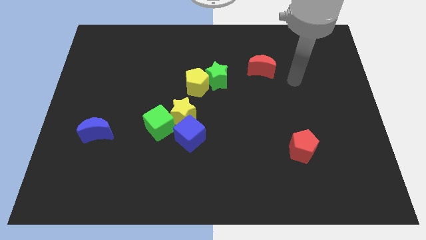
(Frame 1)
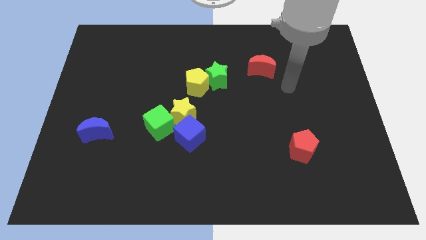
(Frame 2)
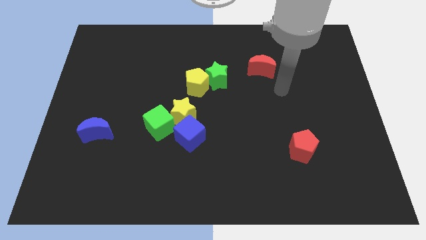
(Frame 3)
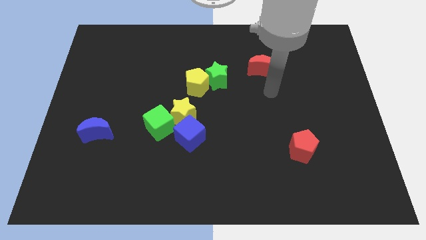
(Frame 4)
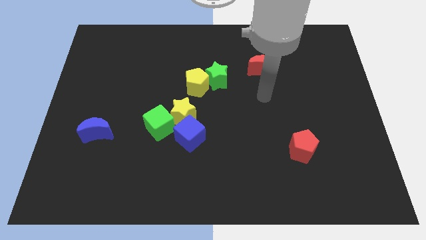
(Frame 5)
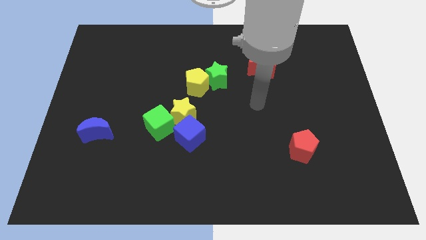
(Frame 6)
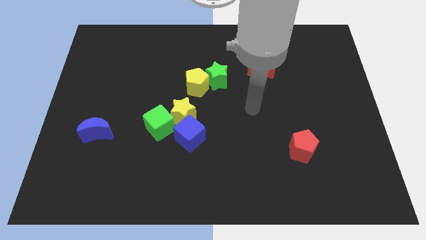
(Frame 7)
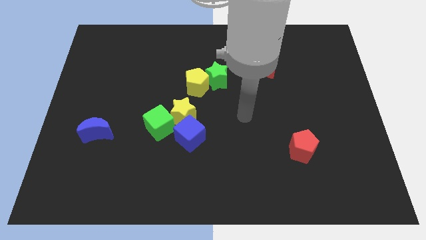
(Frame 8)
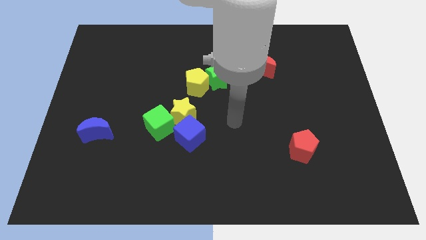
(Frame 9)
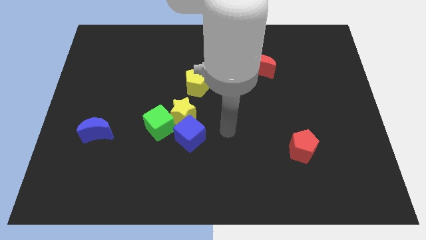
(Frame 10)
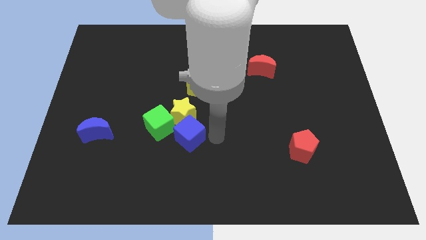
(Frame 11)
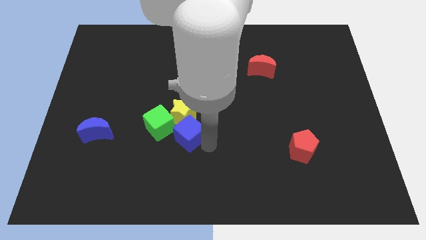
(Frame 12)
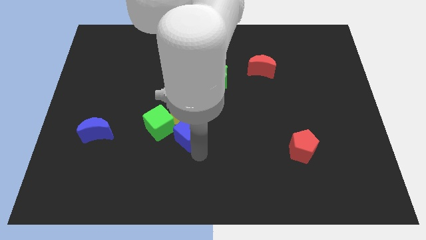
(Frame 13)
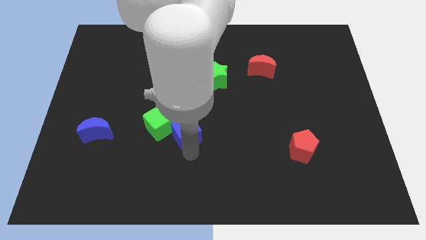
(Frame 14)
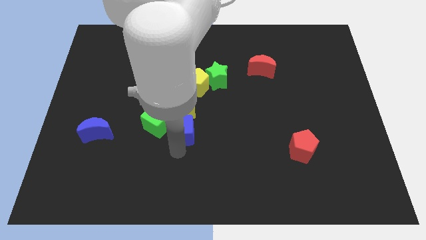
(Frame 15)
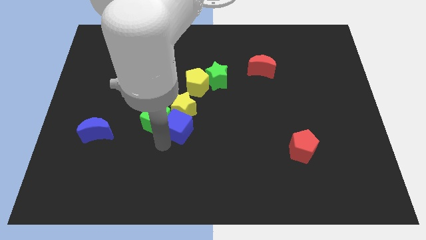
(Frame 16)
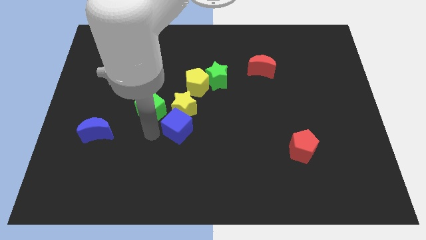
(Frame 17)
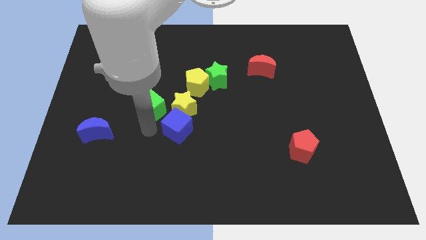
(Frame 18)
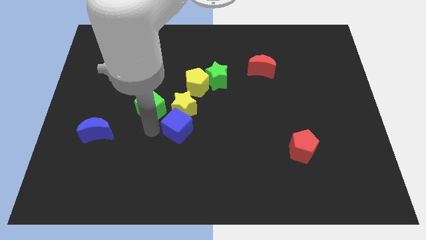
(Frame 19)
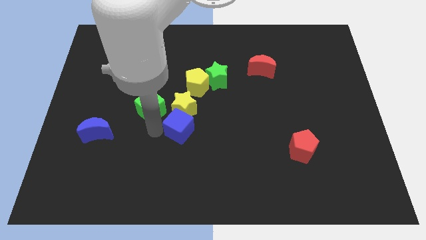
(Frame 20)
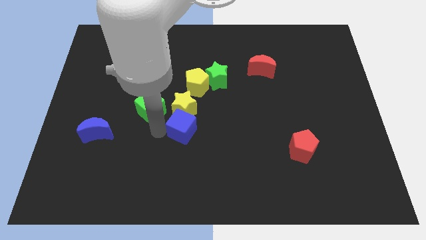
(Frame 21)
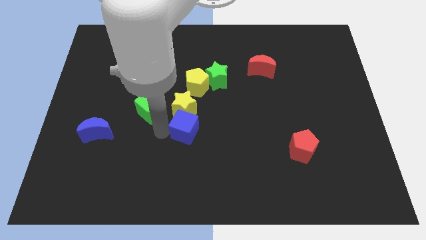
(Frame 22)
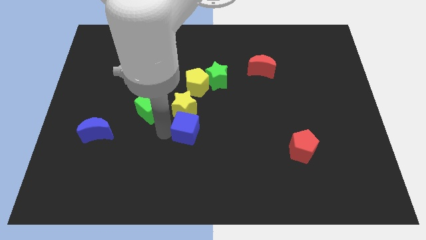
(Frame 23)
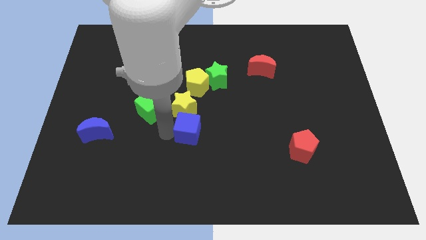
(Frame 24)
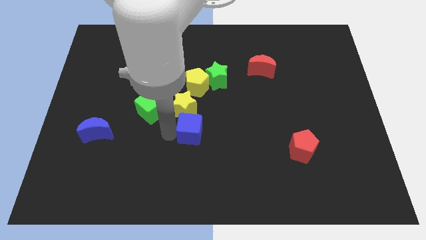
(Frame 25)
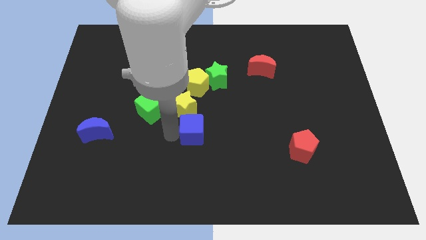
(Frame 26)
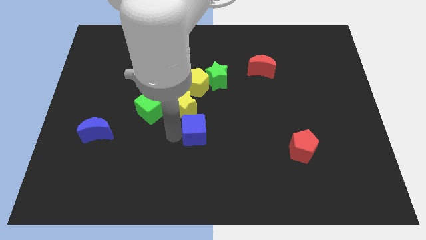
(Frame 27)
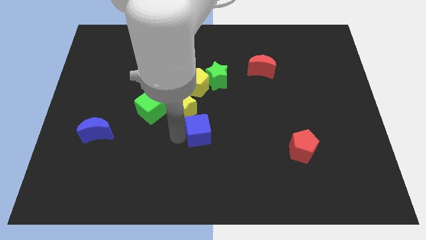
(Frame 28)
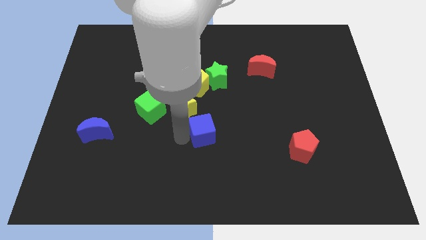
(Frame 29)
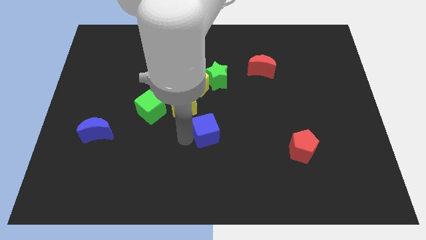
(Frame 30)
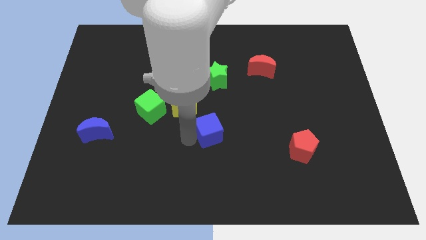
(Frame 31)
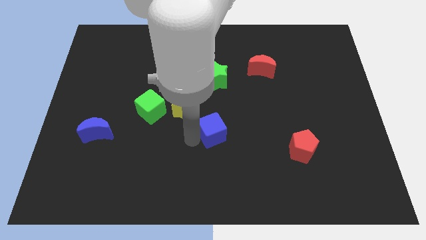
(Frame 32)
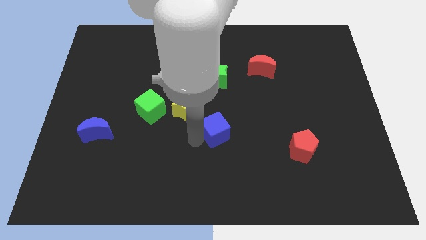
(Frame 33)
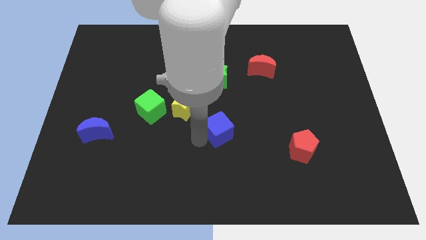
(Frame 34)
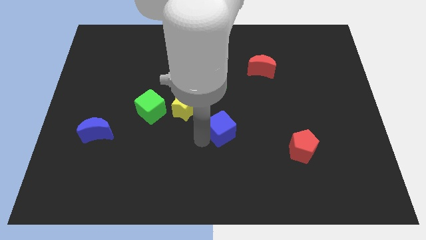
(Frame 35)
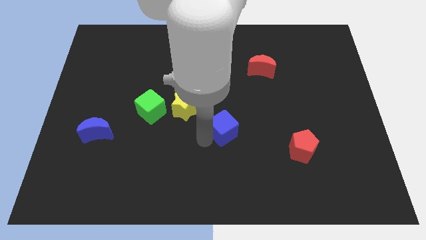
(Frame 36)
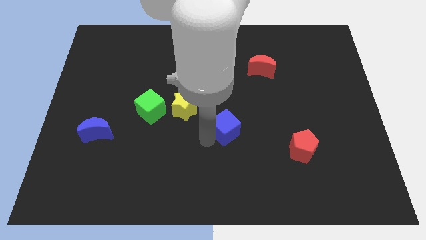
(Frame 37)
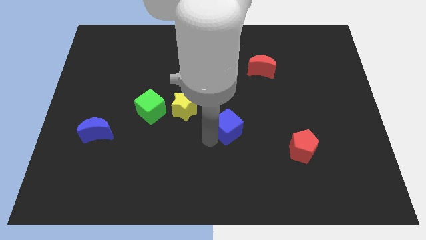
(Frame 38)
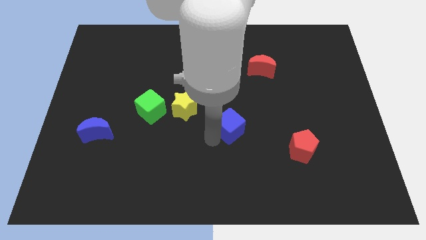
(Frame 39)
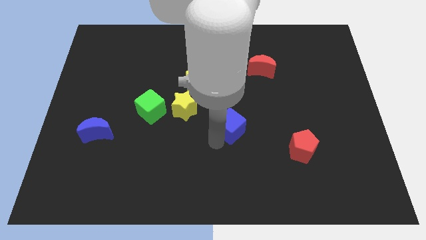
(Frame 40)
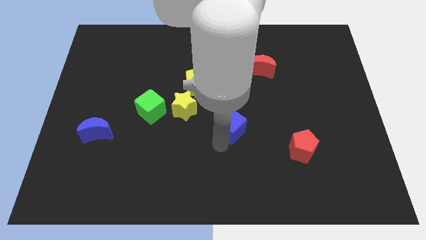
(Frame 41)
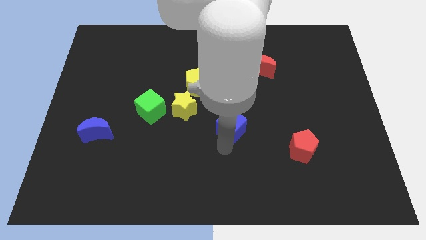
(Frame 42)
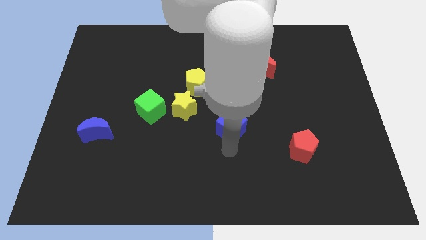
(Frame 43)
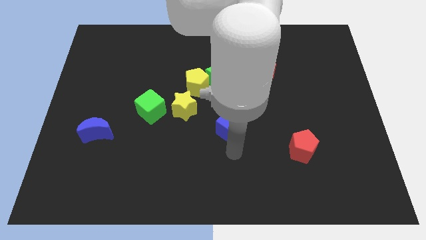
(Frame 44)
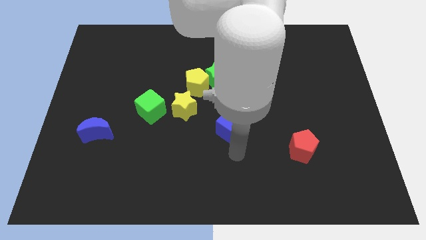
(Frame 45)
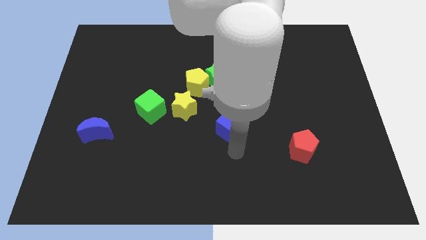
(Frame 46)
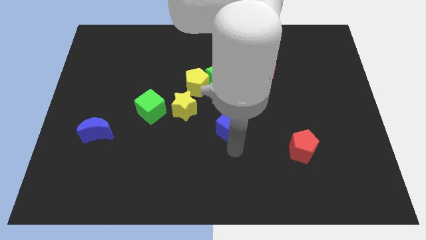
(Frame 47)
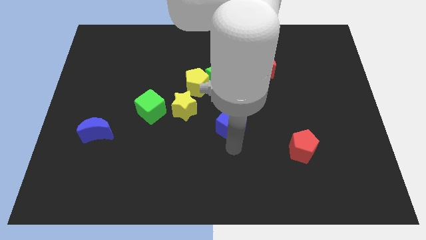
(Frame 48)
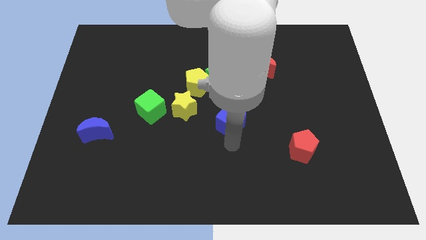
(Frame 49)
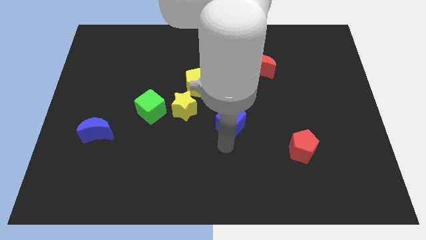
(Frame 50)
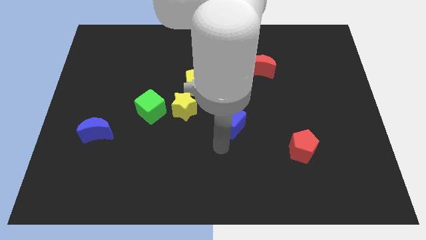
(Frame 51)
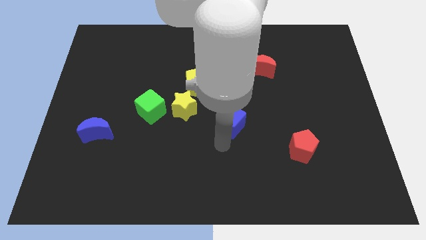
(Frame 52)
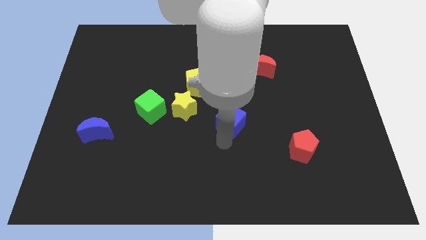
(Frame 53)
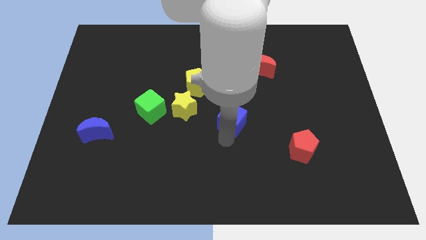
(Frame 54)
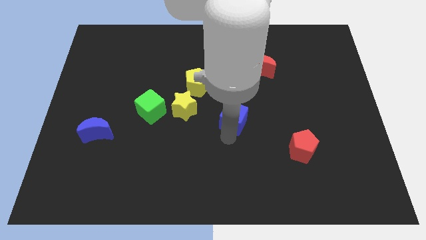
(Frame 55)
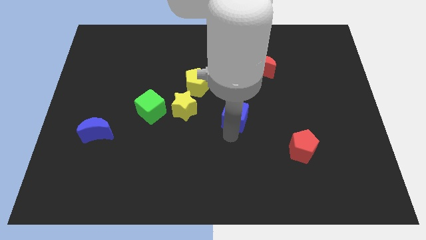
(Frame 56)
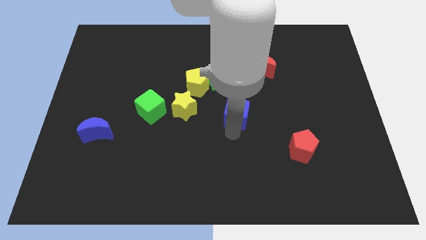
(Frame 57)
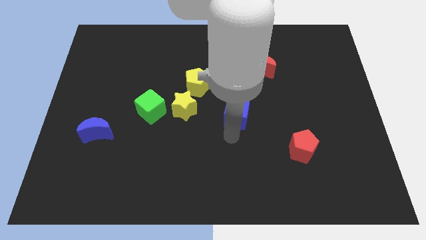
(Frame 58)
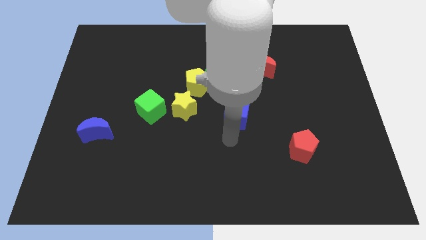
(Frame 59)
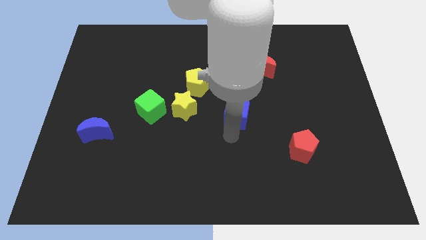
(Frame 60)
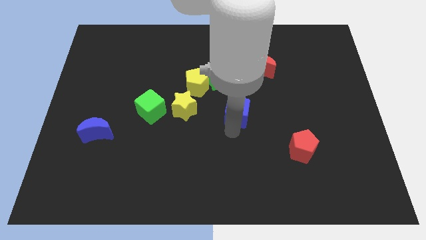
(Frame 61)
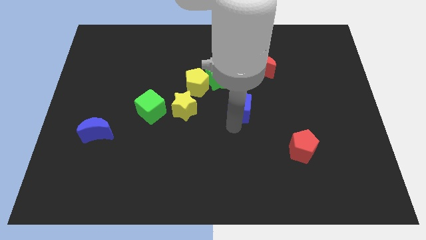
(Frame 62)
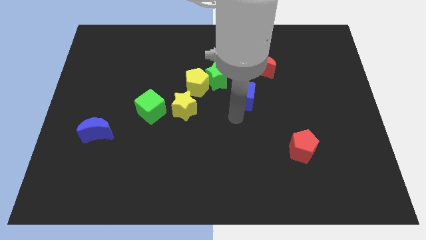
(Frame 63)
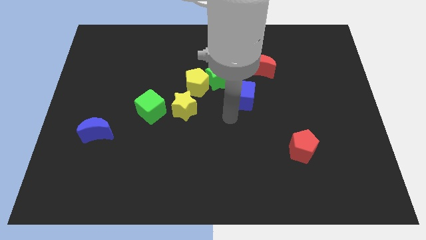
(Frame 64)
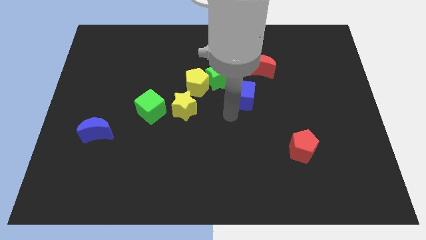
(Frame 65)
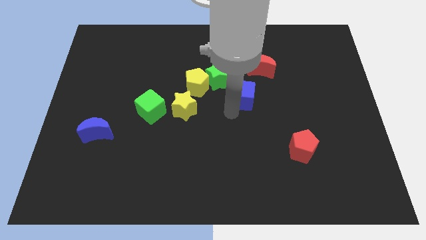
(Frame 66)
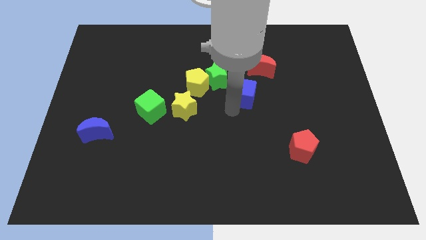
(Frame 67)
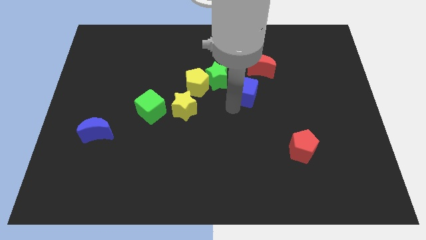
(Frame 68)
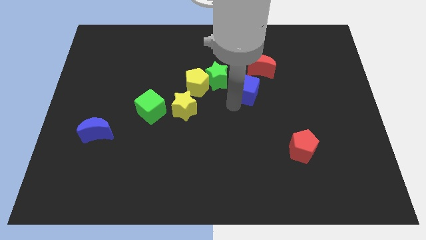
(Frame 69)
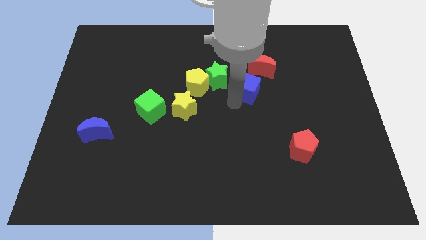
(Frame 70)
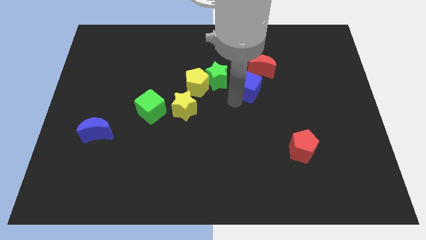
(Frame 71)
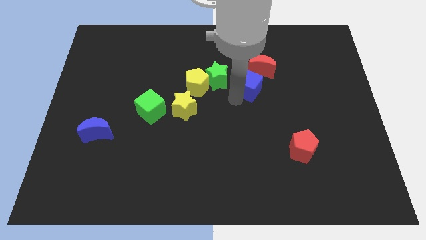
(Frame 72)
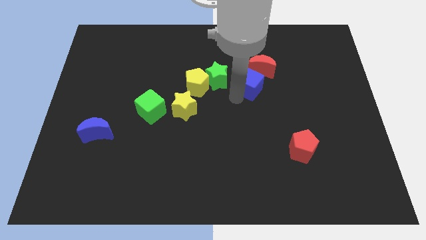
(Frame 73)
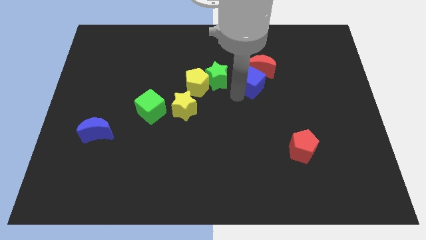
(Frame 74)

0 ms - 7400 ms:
slide the blue cube close to the red moon

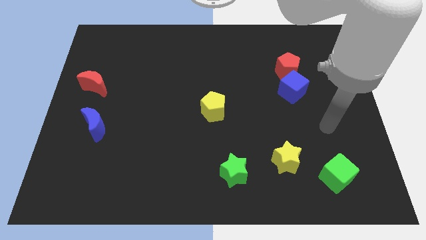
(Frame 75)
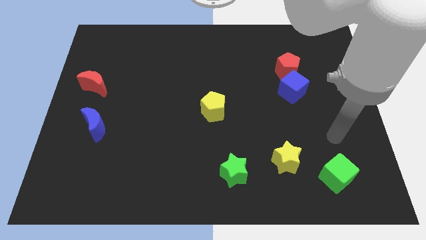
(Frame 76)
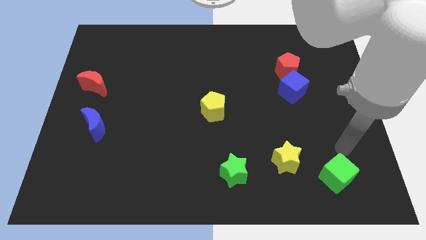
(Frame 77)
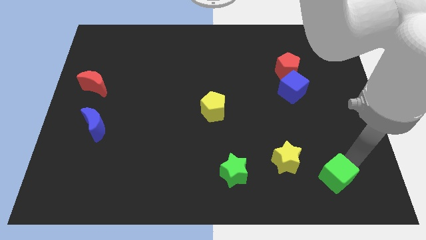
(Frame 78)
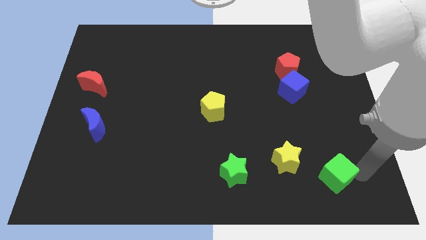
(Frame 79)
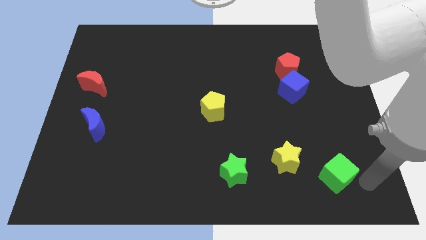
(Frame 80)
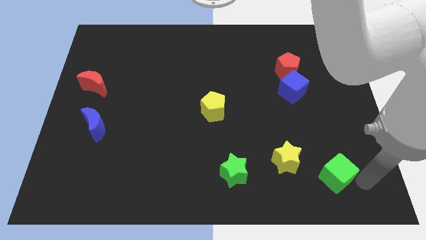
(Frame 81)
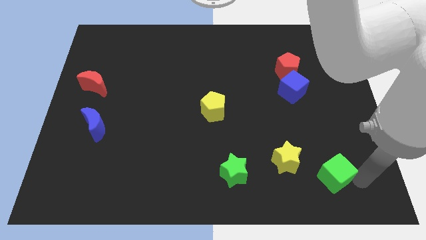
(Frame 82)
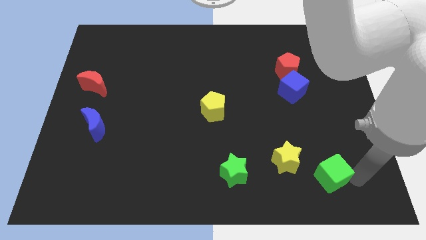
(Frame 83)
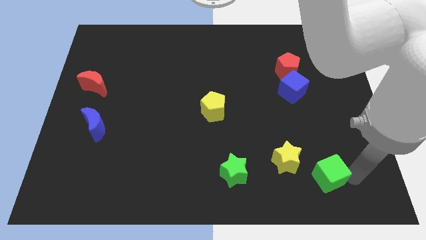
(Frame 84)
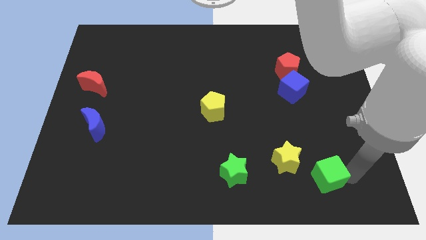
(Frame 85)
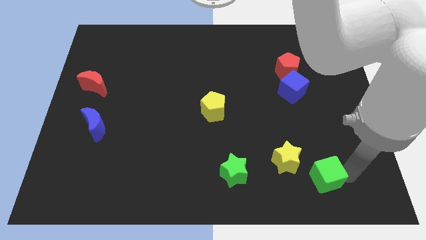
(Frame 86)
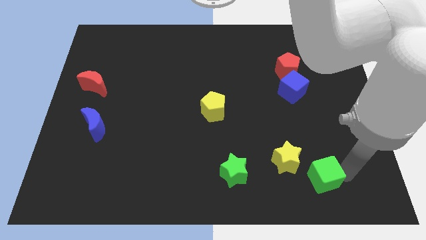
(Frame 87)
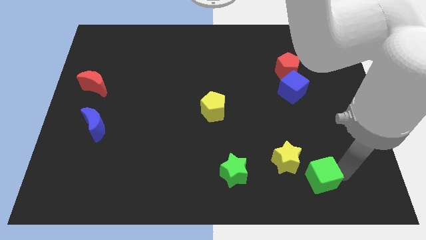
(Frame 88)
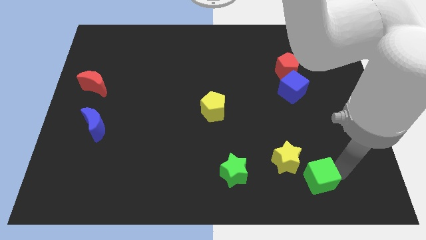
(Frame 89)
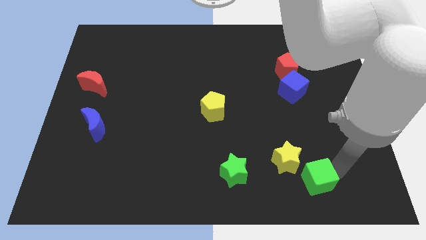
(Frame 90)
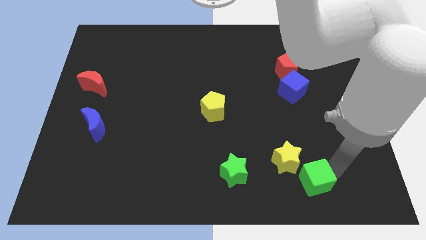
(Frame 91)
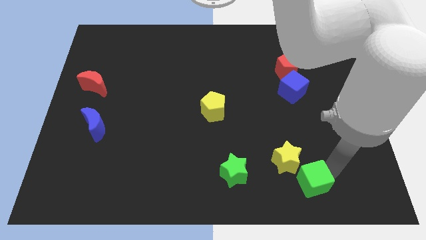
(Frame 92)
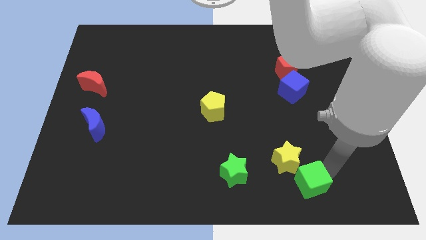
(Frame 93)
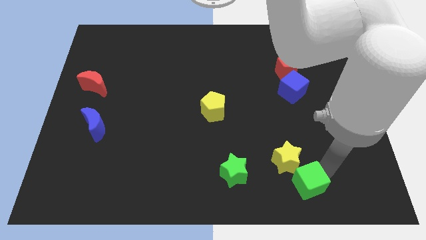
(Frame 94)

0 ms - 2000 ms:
move the green cube next to the yellow star
